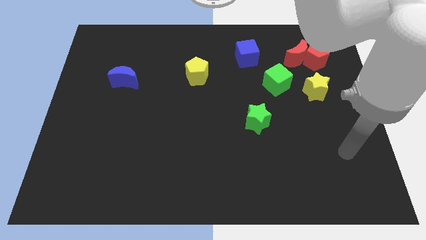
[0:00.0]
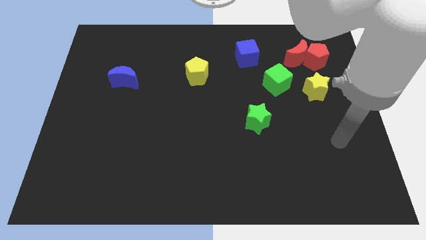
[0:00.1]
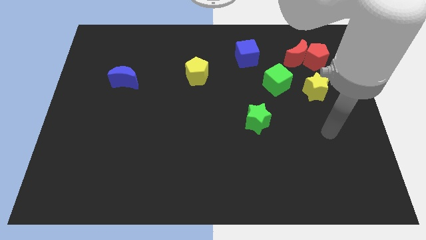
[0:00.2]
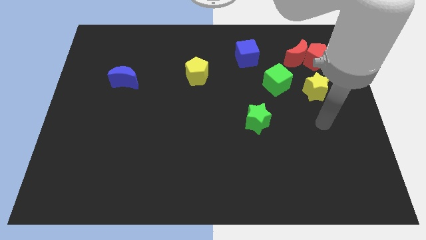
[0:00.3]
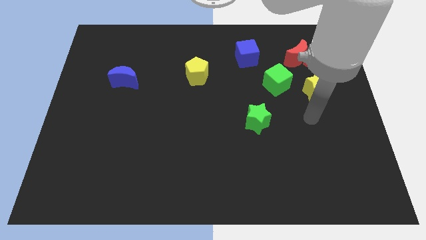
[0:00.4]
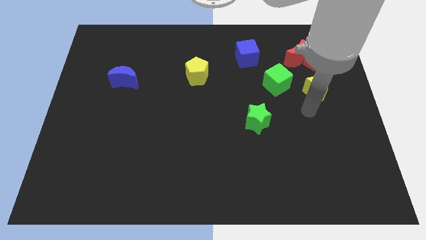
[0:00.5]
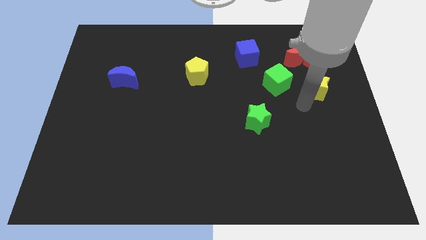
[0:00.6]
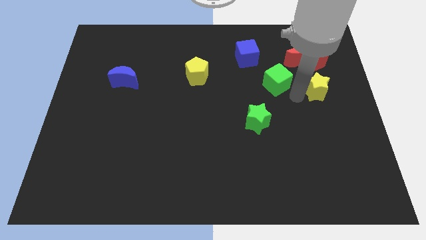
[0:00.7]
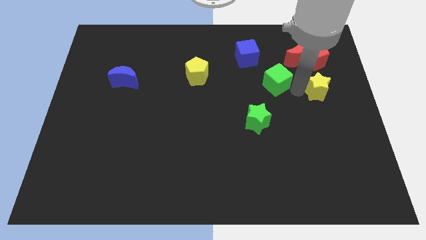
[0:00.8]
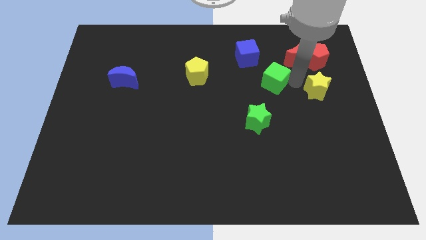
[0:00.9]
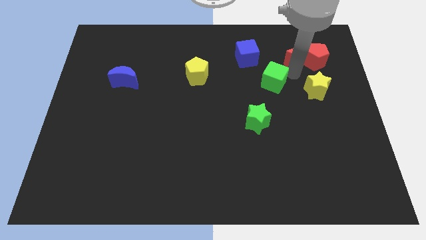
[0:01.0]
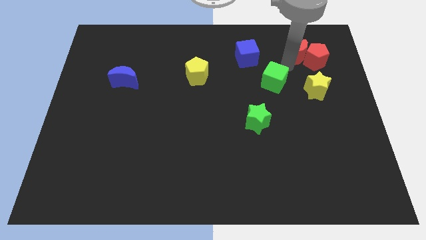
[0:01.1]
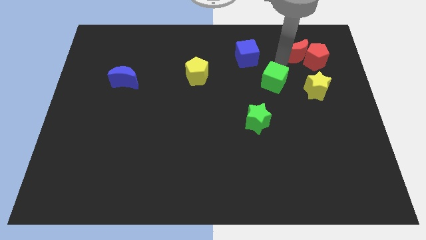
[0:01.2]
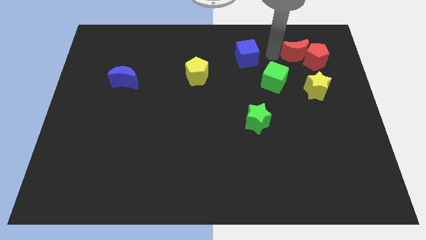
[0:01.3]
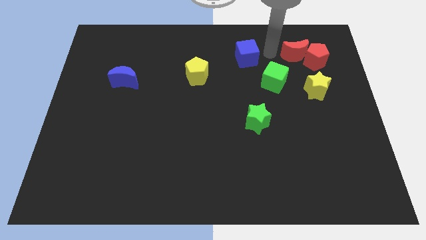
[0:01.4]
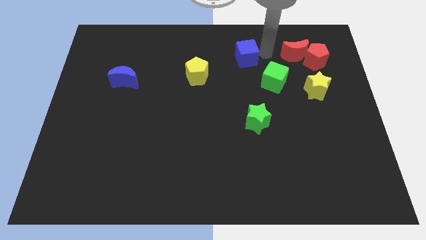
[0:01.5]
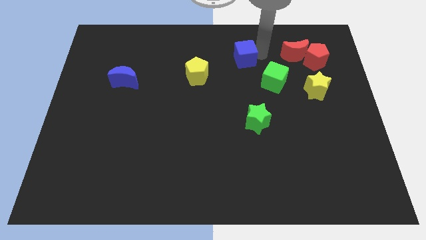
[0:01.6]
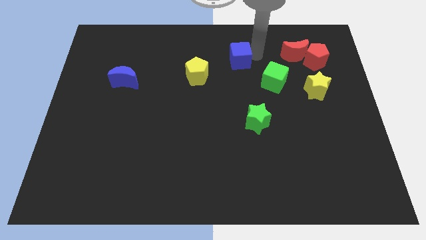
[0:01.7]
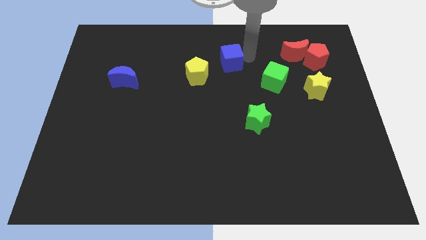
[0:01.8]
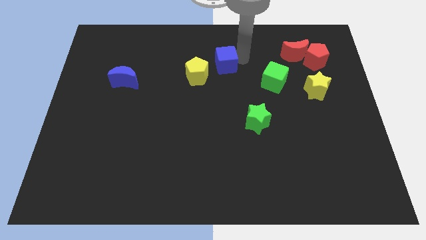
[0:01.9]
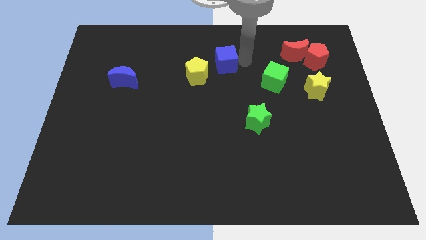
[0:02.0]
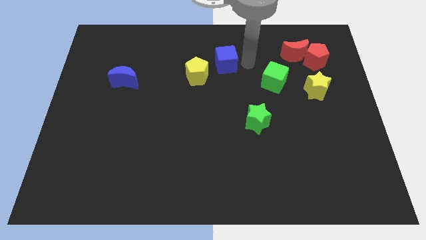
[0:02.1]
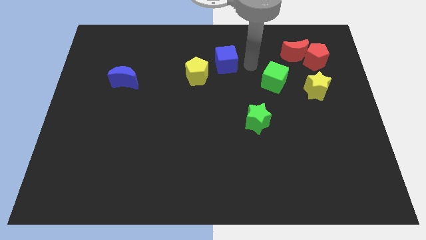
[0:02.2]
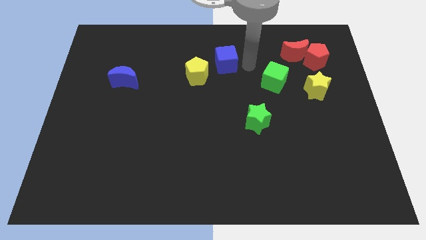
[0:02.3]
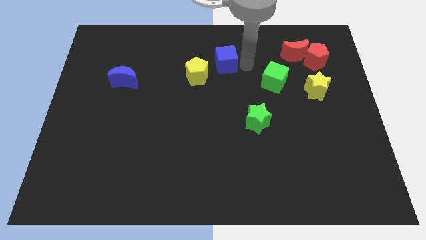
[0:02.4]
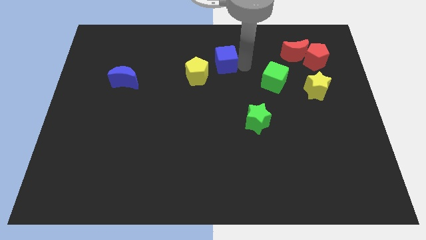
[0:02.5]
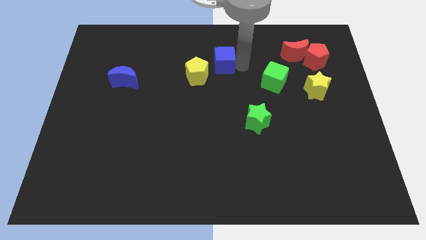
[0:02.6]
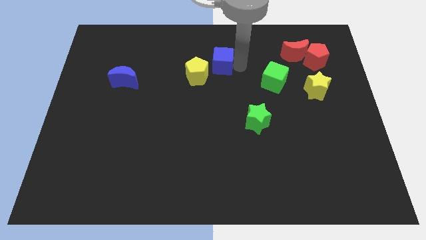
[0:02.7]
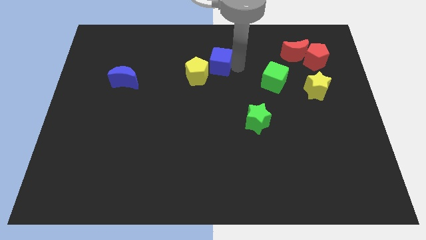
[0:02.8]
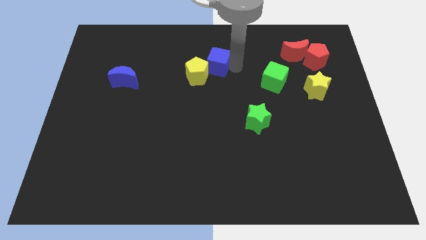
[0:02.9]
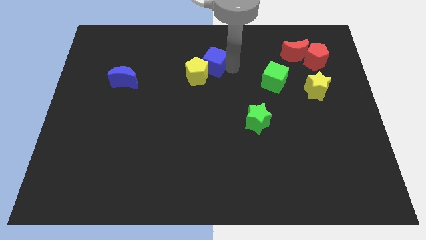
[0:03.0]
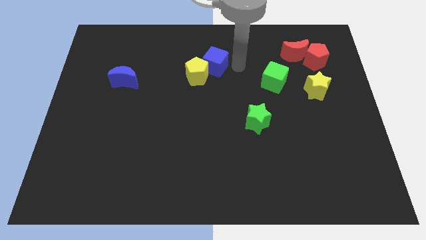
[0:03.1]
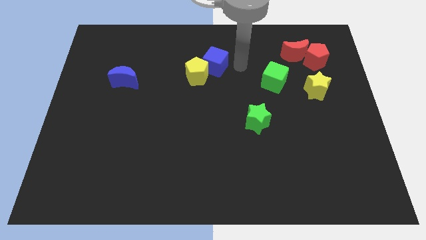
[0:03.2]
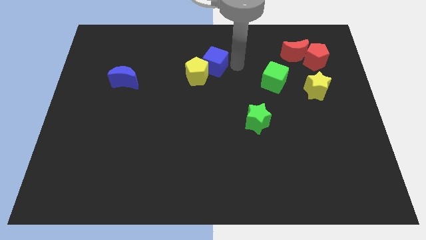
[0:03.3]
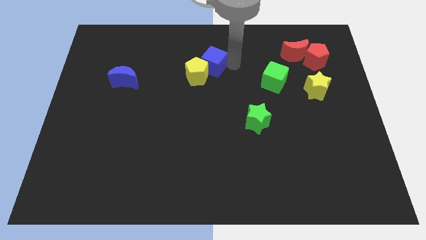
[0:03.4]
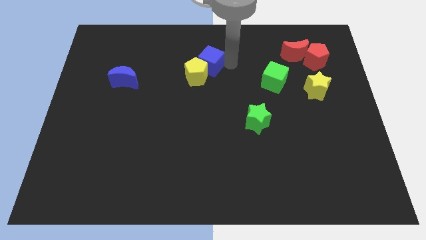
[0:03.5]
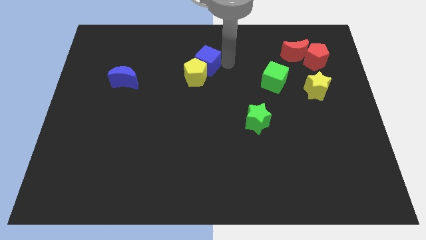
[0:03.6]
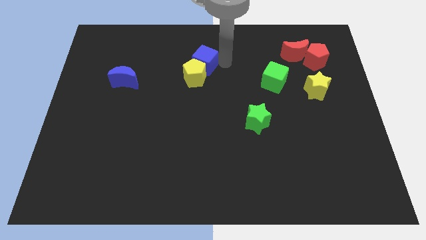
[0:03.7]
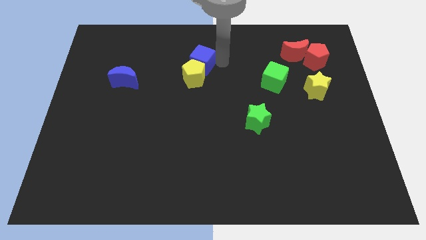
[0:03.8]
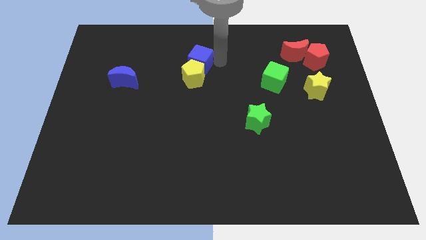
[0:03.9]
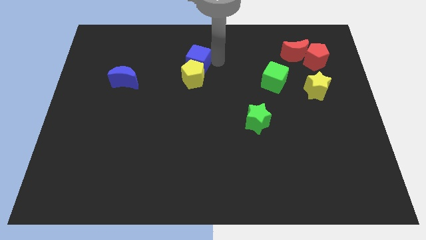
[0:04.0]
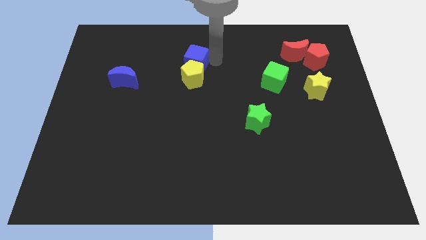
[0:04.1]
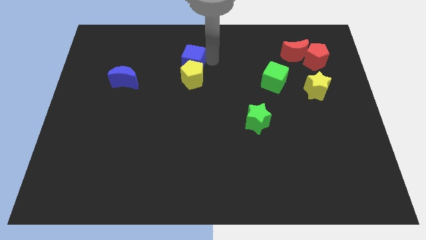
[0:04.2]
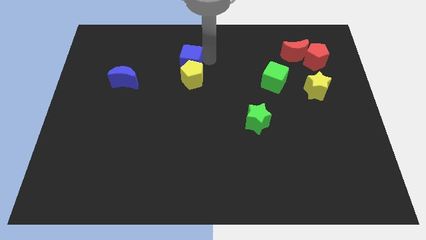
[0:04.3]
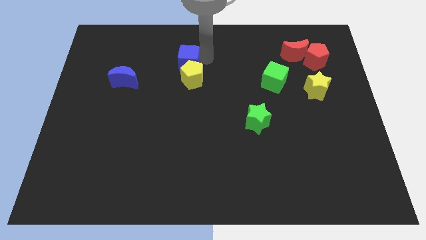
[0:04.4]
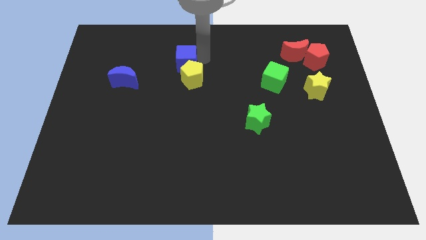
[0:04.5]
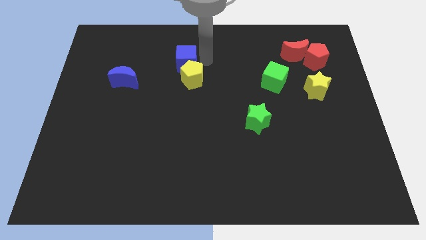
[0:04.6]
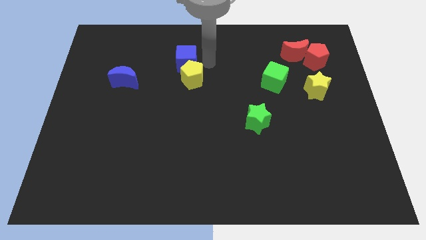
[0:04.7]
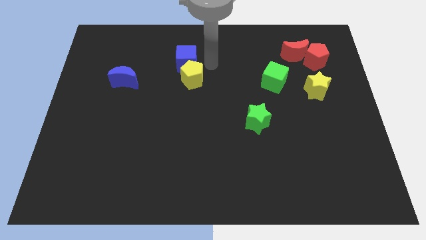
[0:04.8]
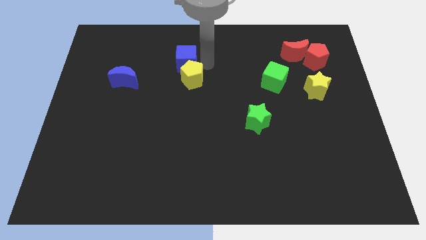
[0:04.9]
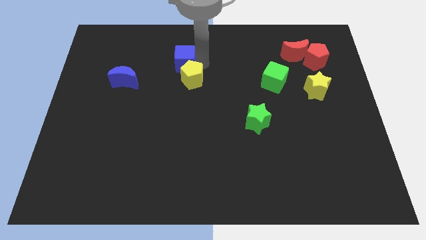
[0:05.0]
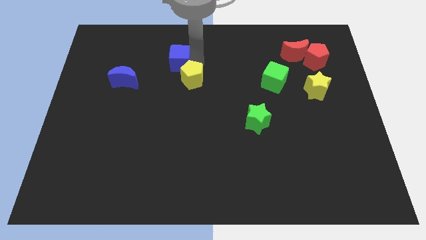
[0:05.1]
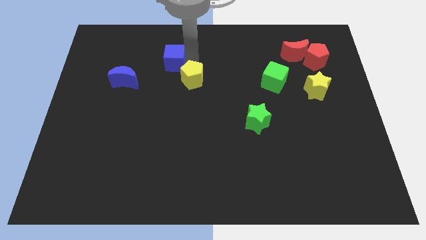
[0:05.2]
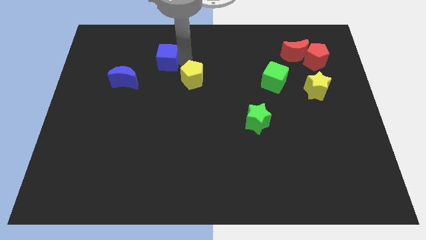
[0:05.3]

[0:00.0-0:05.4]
slide the blue cube to the left
